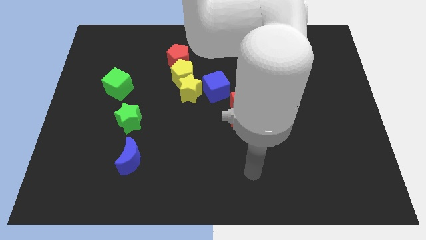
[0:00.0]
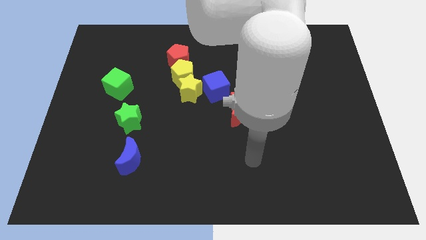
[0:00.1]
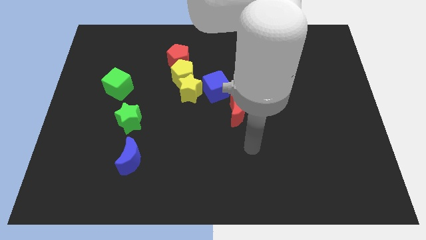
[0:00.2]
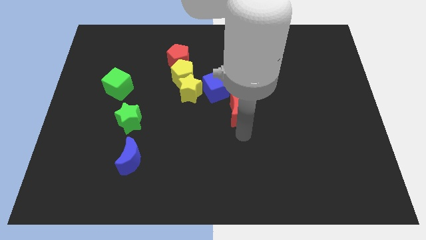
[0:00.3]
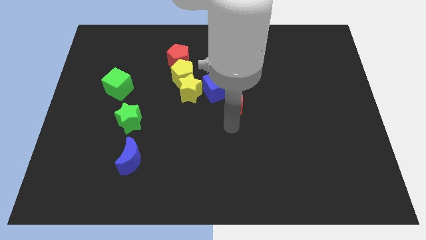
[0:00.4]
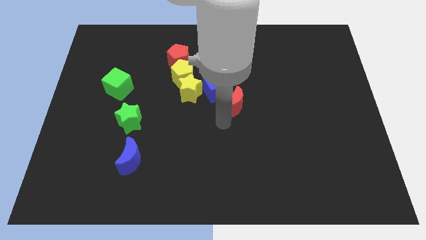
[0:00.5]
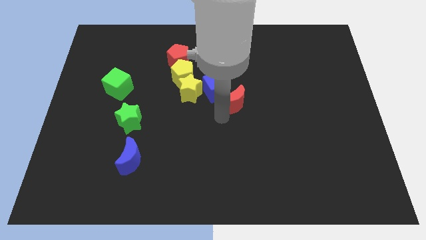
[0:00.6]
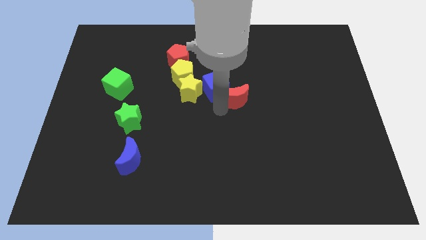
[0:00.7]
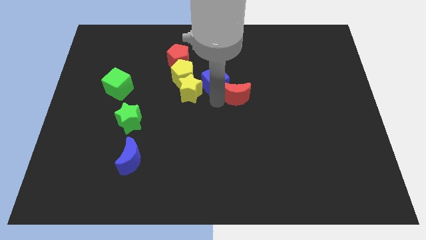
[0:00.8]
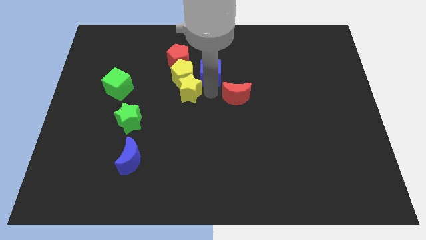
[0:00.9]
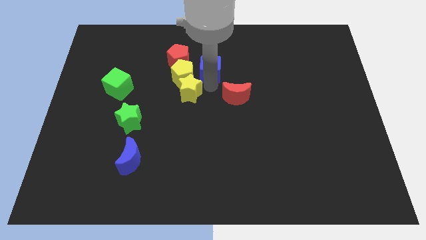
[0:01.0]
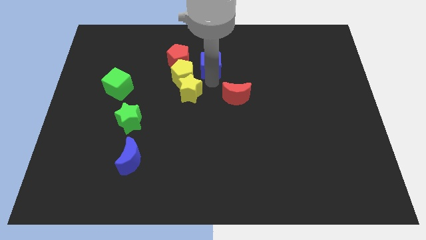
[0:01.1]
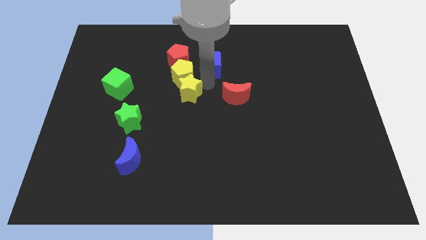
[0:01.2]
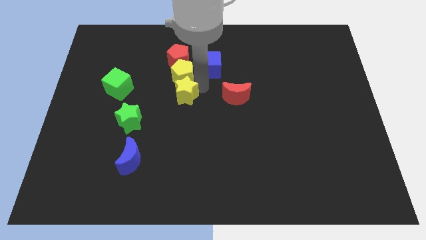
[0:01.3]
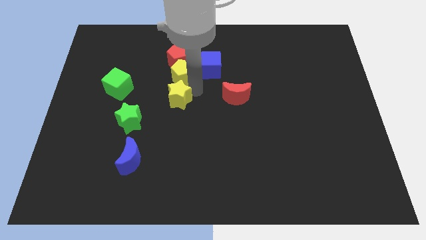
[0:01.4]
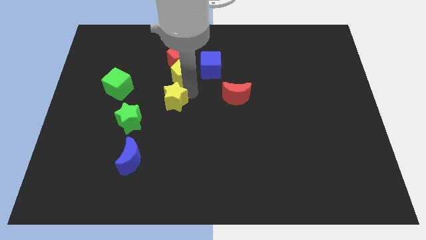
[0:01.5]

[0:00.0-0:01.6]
move the yellow star away from the yellow pentagon and blue cube

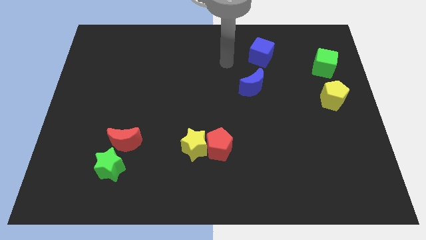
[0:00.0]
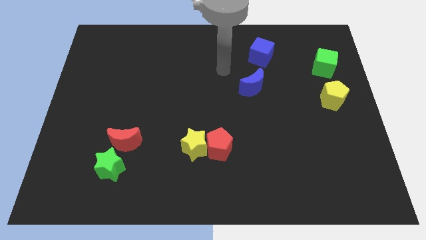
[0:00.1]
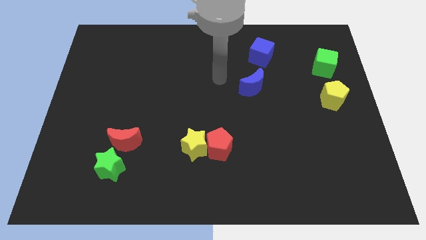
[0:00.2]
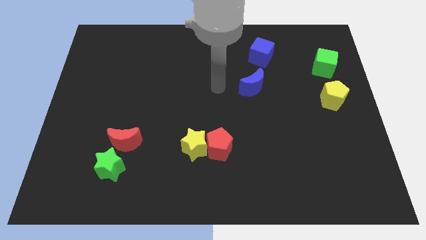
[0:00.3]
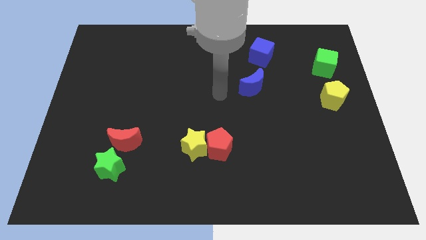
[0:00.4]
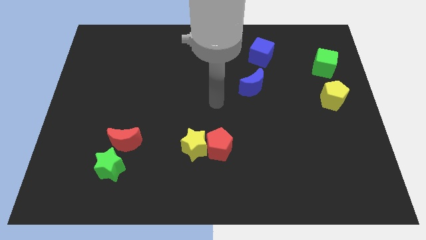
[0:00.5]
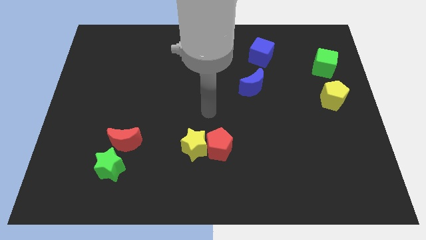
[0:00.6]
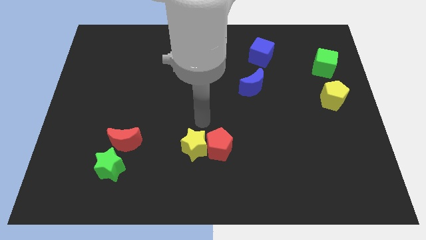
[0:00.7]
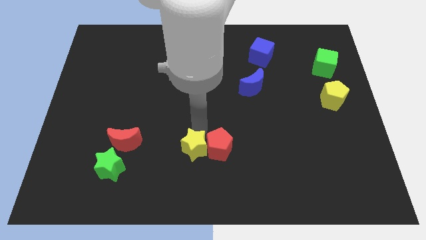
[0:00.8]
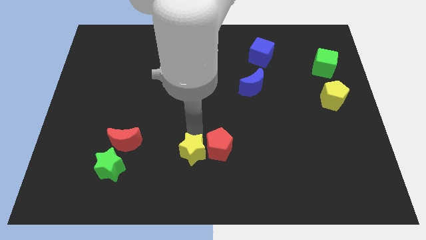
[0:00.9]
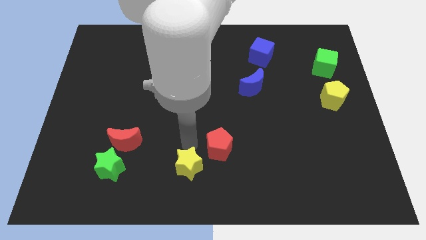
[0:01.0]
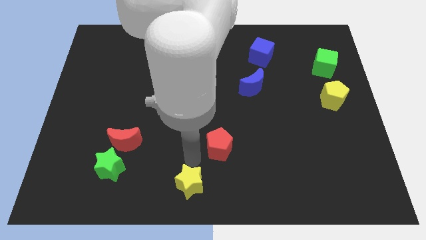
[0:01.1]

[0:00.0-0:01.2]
separate the red pentagon from the yellow star

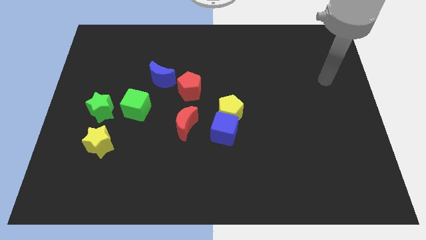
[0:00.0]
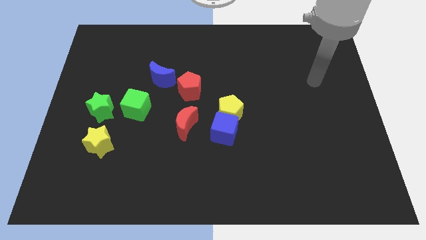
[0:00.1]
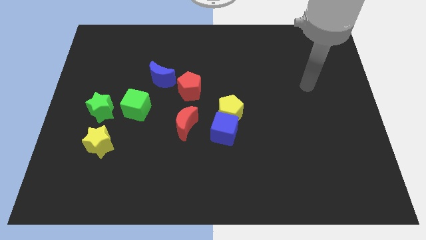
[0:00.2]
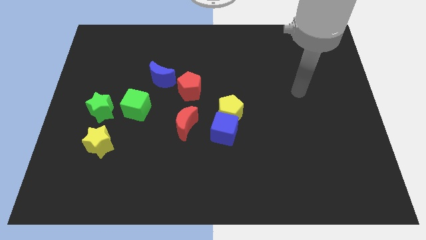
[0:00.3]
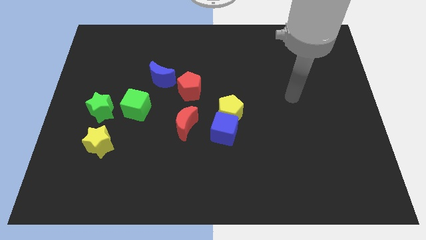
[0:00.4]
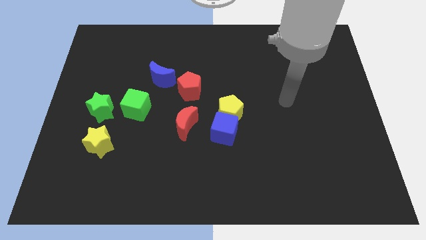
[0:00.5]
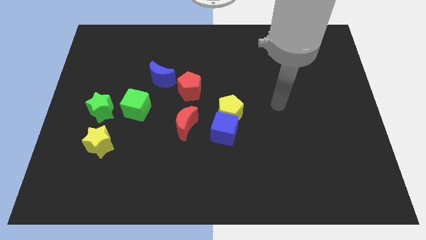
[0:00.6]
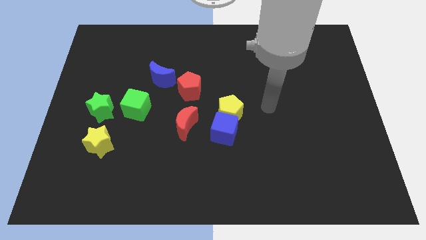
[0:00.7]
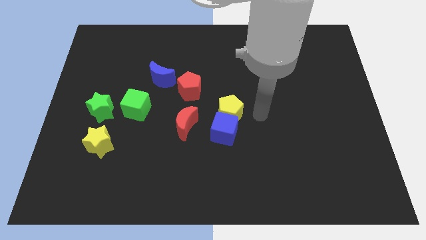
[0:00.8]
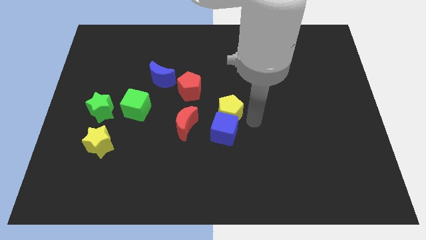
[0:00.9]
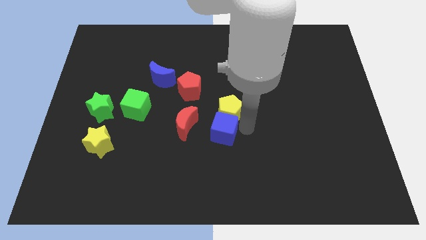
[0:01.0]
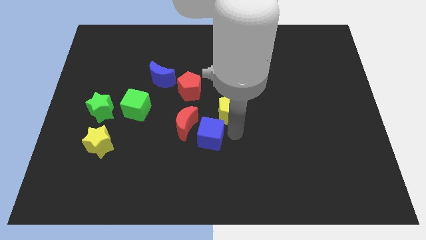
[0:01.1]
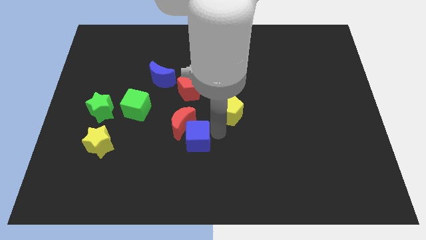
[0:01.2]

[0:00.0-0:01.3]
pull the yellow pentagon apart from the blue cube

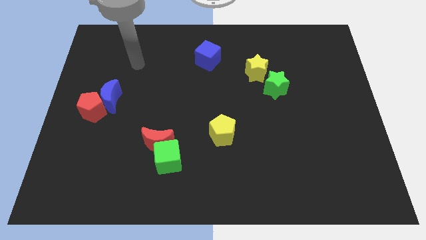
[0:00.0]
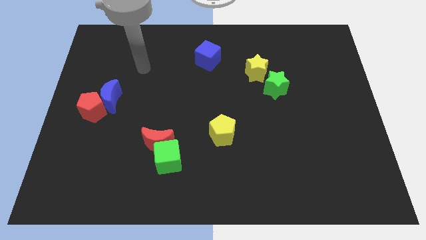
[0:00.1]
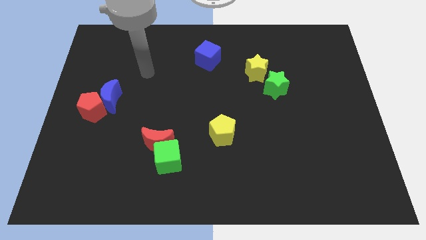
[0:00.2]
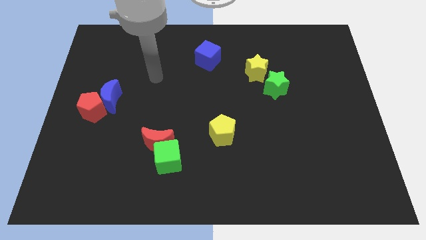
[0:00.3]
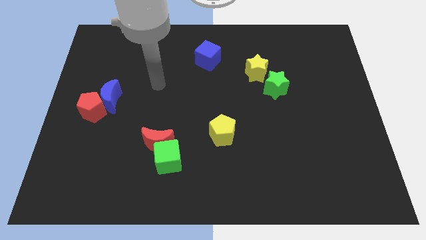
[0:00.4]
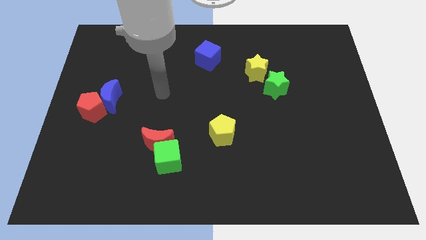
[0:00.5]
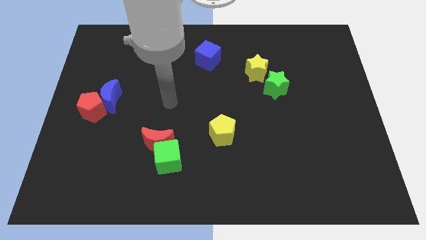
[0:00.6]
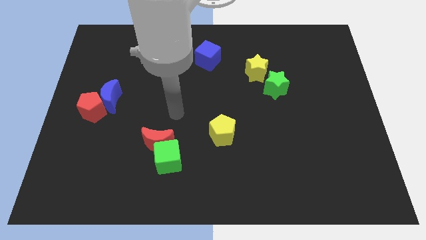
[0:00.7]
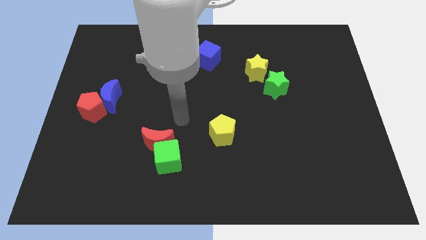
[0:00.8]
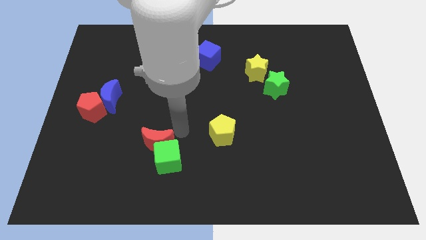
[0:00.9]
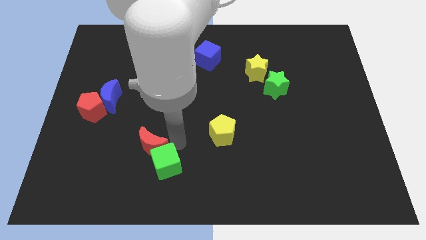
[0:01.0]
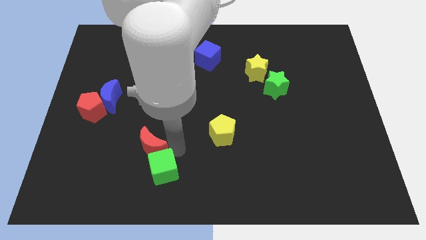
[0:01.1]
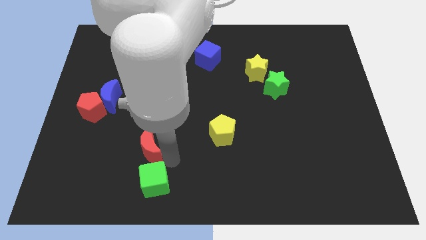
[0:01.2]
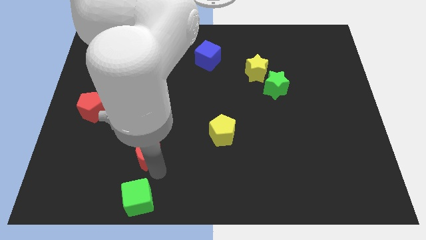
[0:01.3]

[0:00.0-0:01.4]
separate the red moon from the green cube

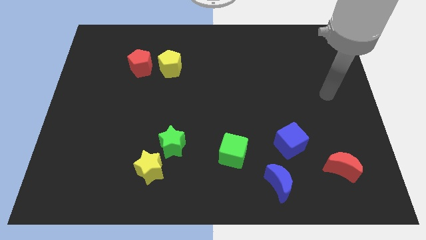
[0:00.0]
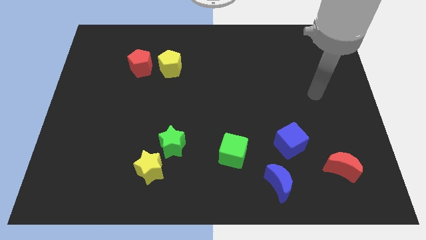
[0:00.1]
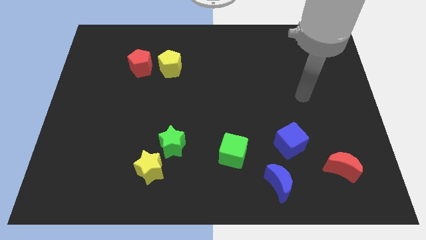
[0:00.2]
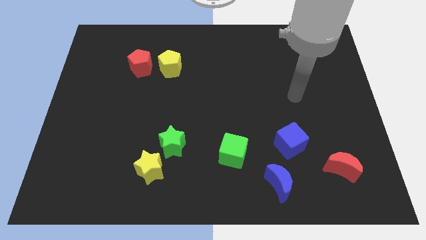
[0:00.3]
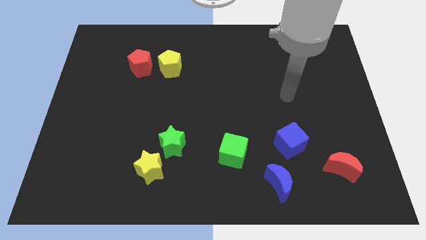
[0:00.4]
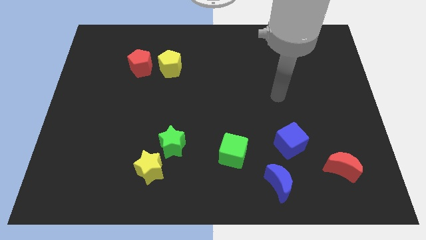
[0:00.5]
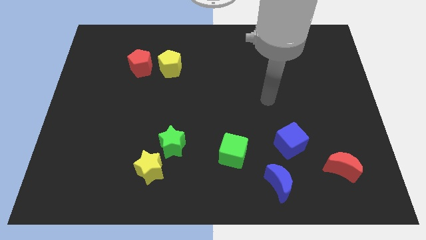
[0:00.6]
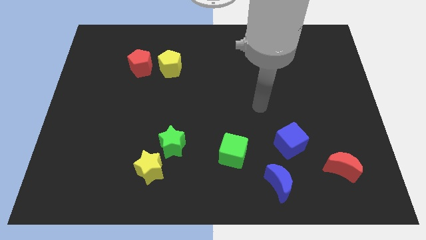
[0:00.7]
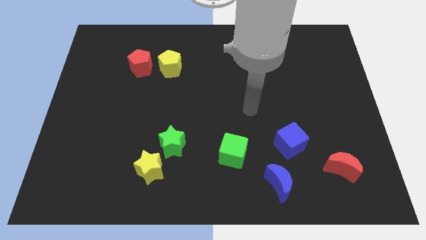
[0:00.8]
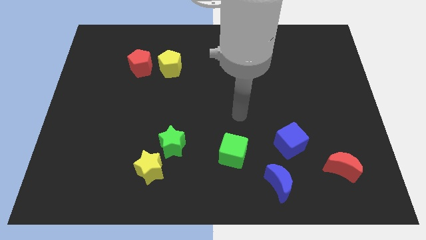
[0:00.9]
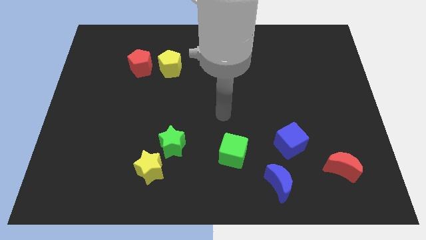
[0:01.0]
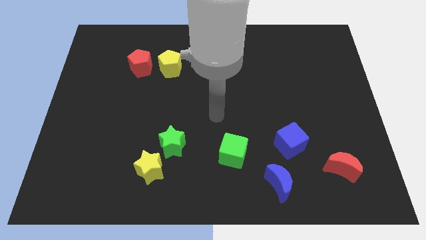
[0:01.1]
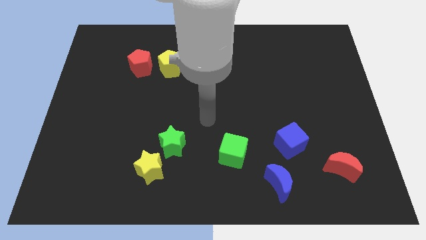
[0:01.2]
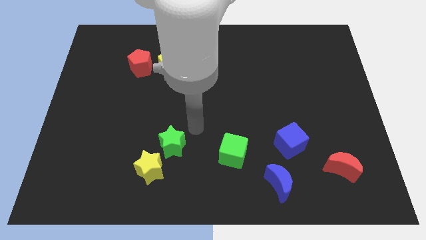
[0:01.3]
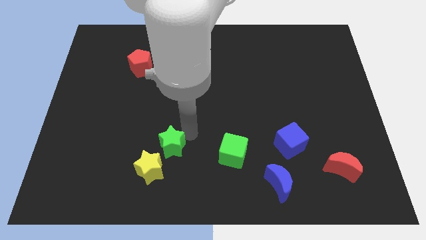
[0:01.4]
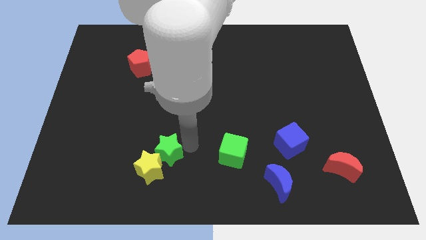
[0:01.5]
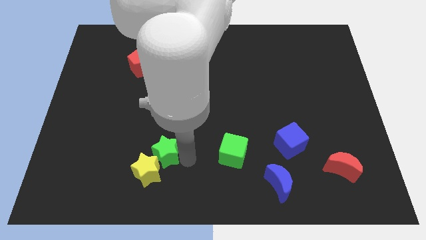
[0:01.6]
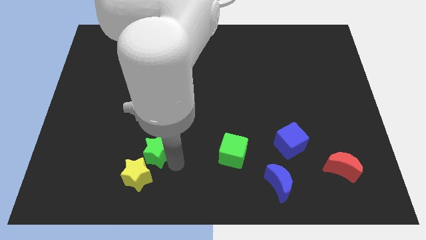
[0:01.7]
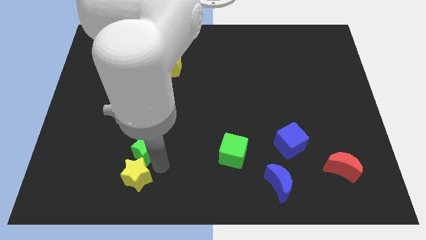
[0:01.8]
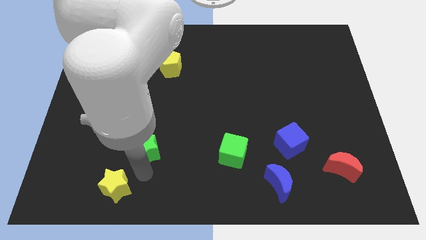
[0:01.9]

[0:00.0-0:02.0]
separate the green star from the yellow star

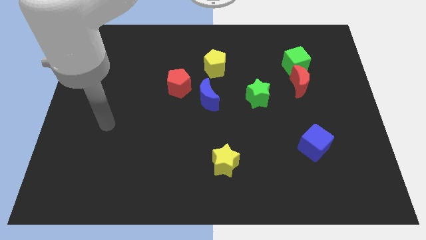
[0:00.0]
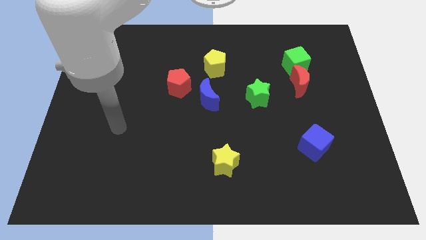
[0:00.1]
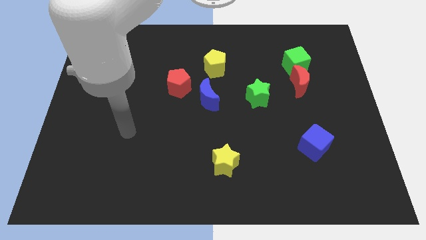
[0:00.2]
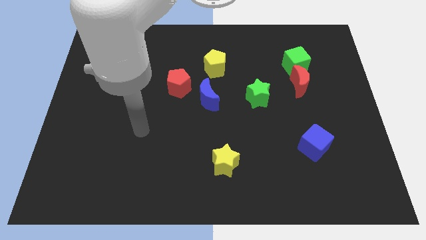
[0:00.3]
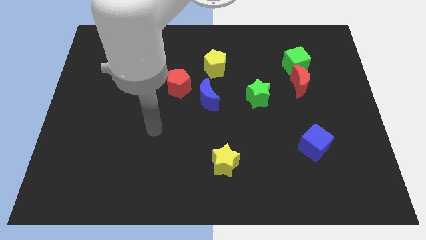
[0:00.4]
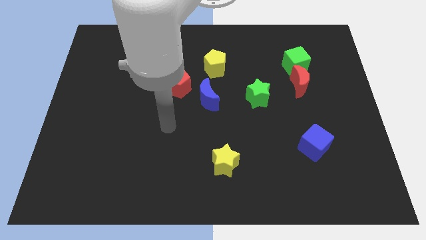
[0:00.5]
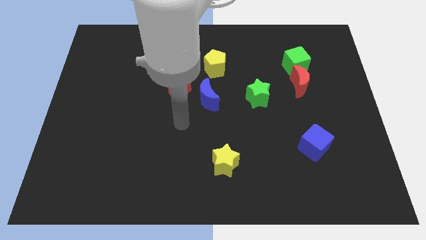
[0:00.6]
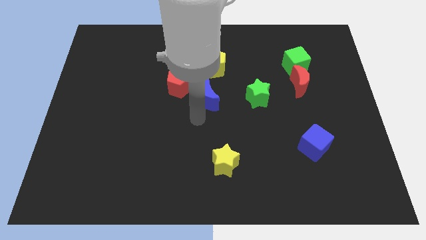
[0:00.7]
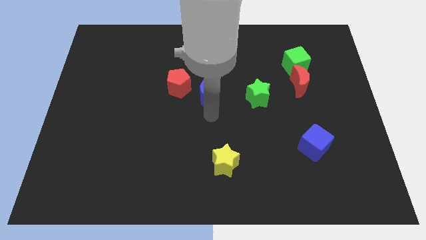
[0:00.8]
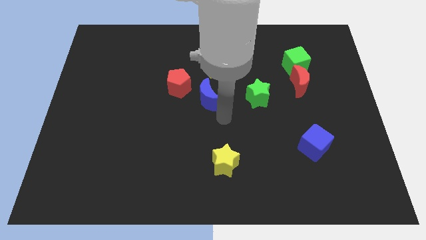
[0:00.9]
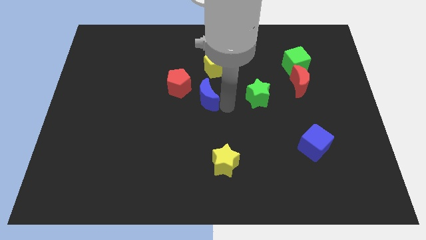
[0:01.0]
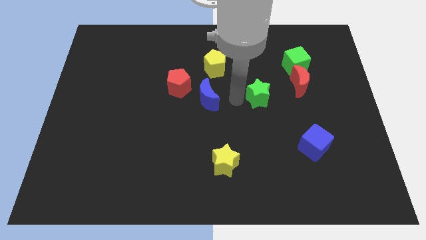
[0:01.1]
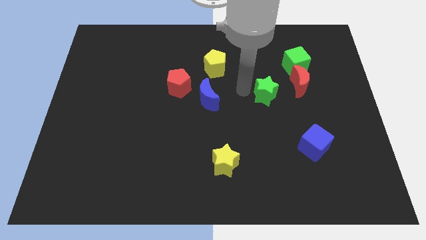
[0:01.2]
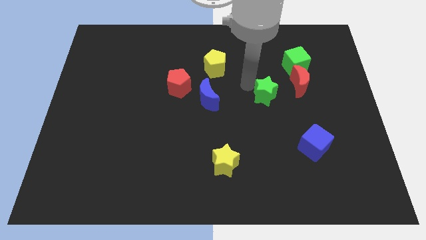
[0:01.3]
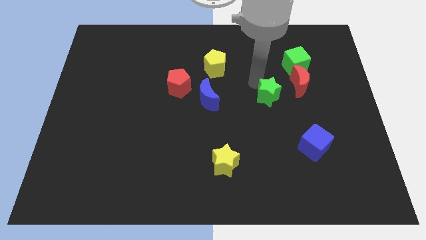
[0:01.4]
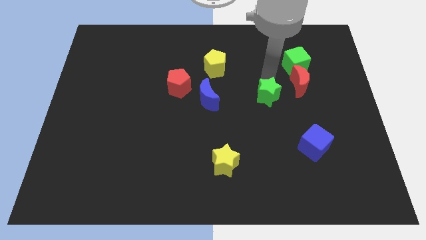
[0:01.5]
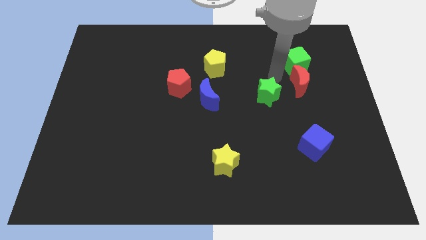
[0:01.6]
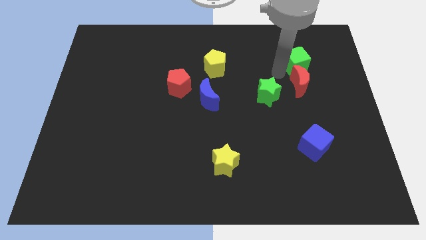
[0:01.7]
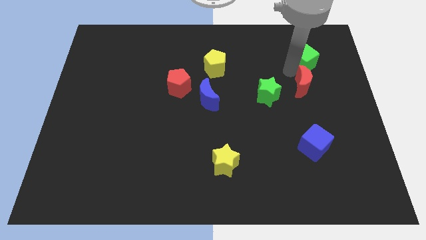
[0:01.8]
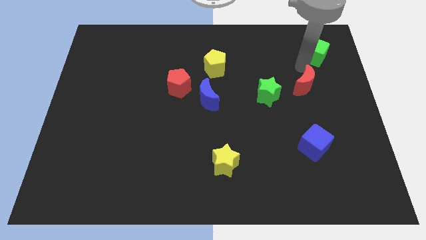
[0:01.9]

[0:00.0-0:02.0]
pull the red moon apart from the green cube
